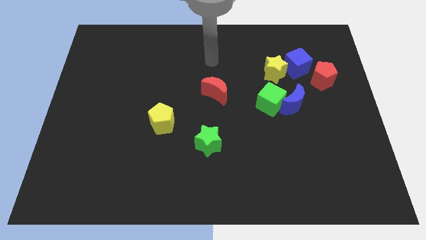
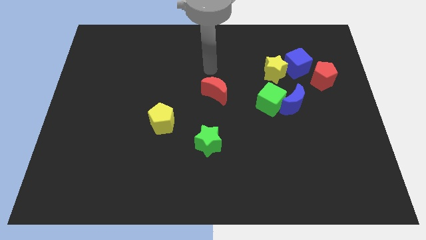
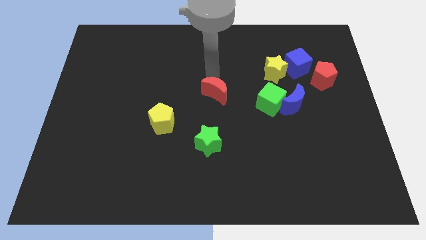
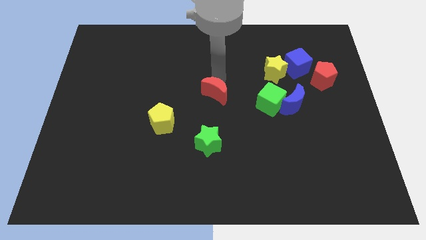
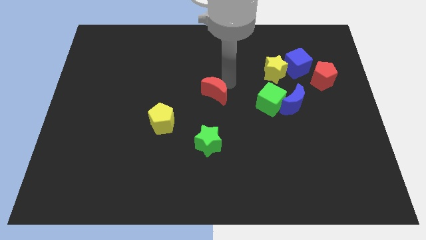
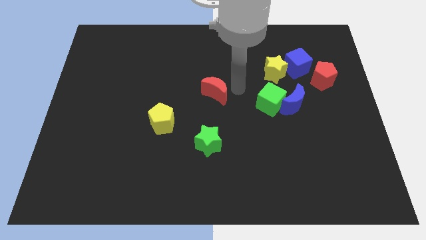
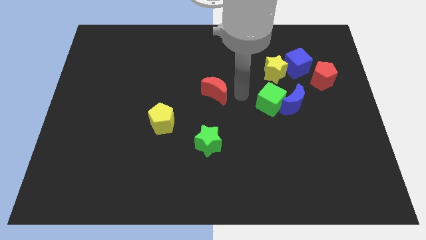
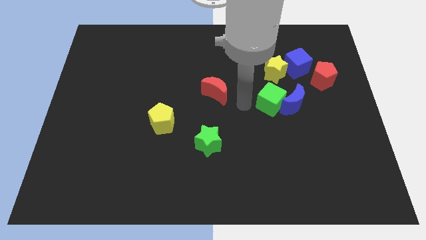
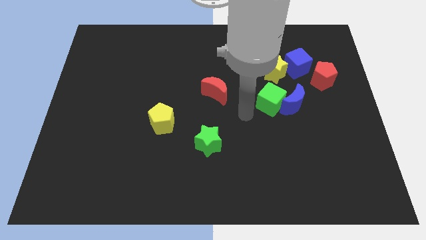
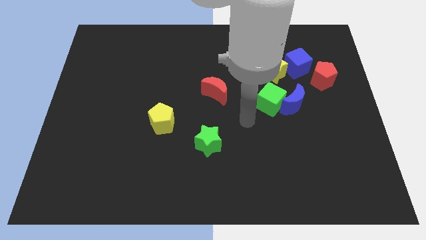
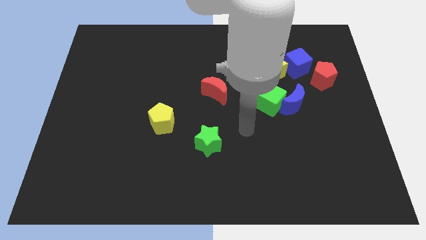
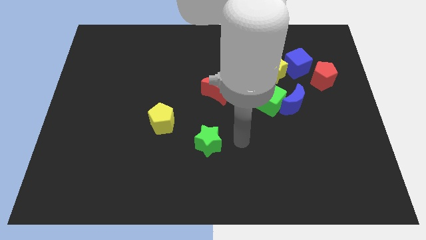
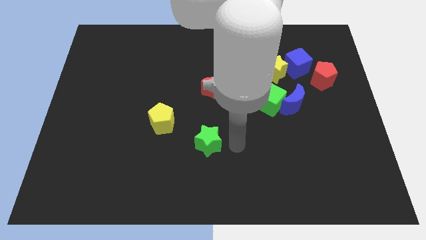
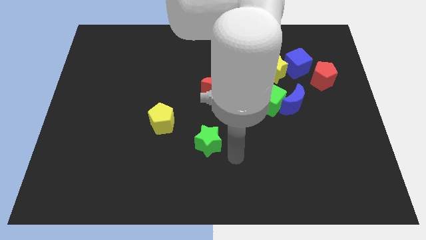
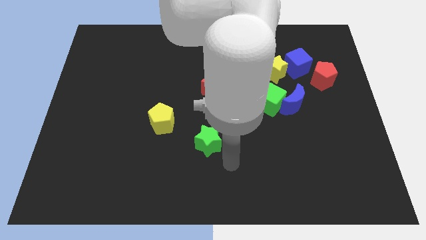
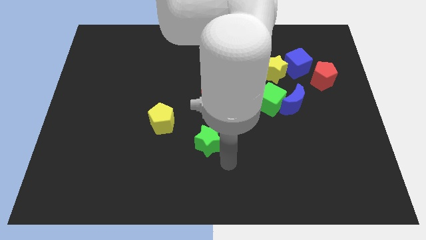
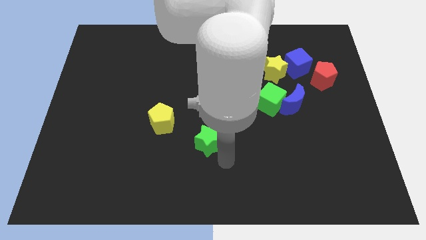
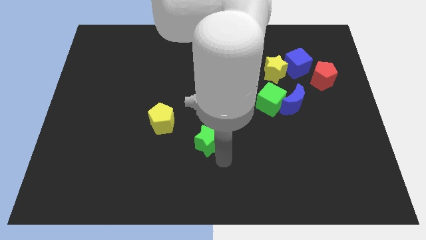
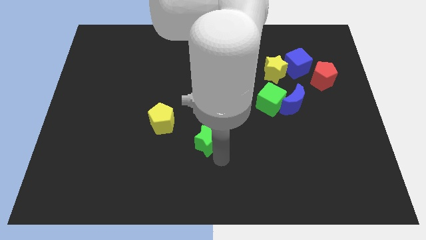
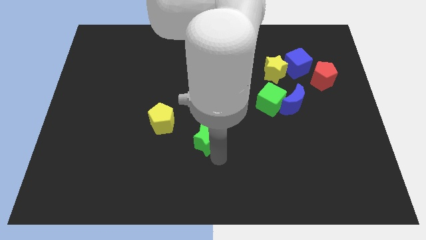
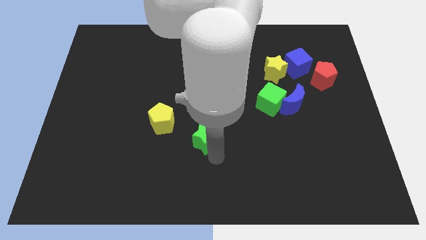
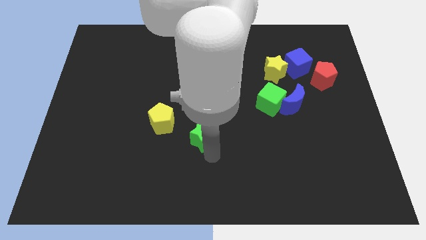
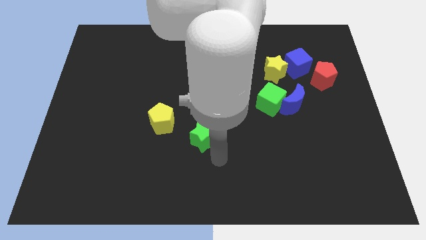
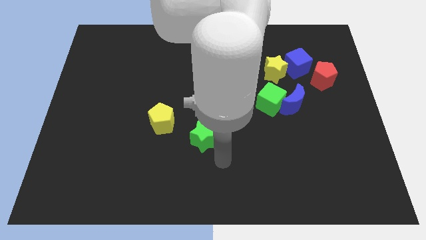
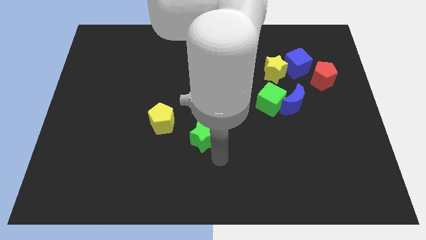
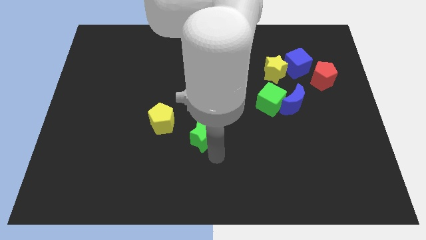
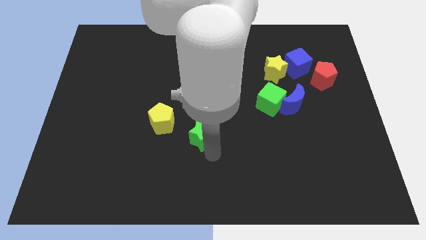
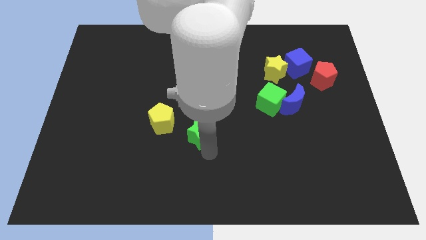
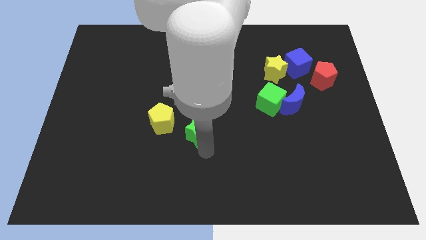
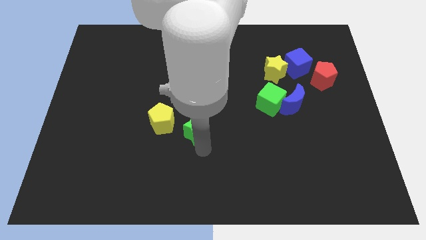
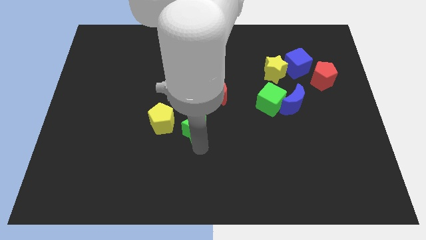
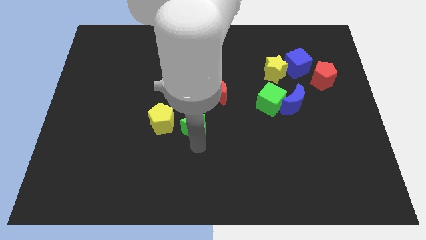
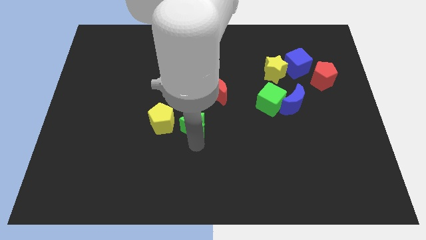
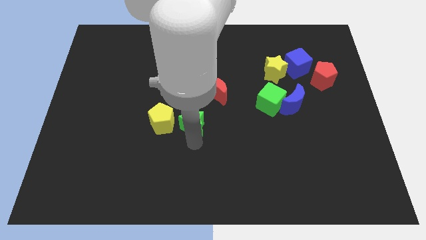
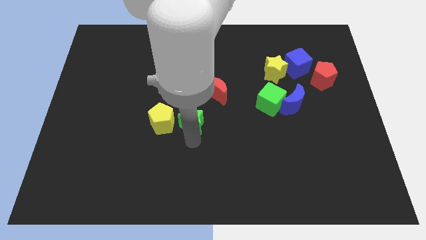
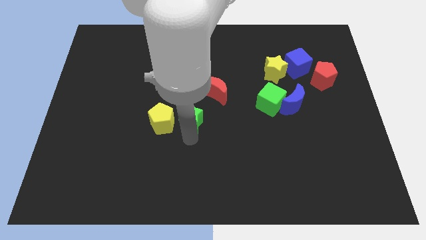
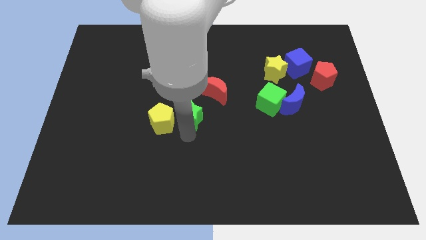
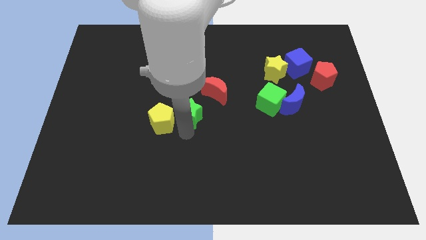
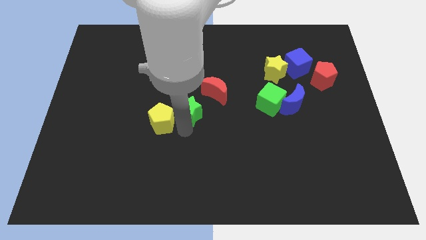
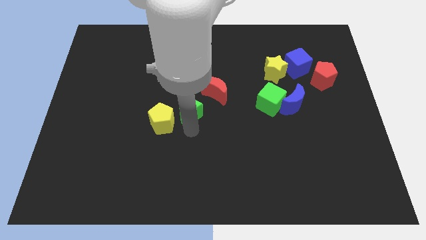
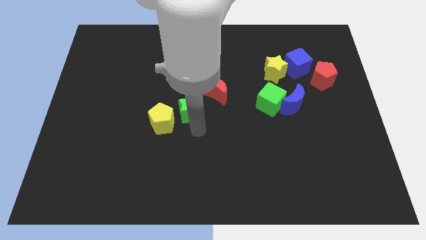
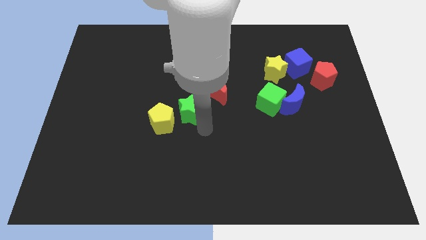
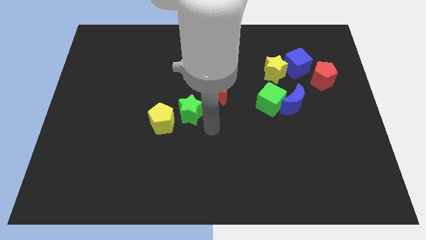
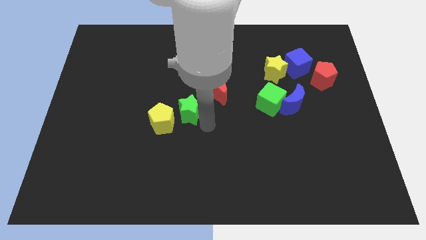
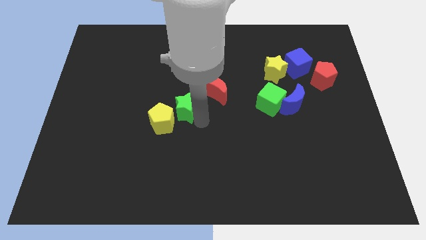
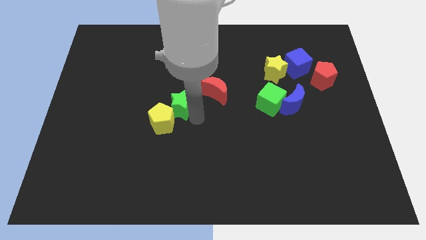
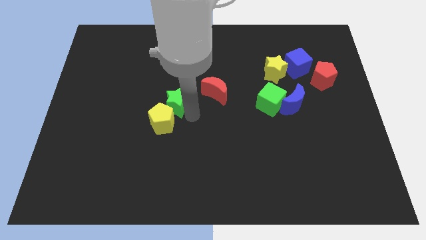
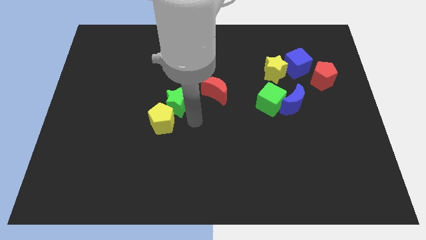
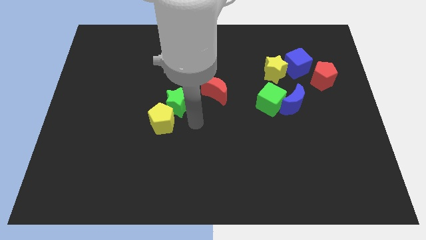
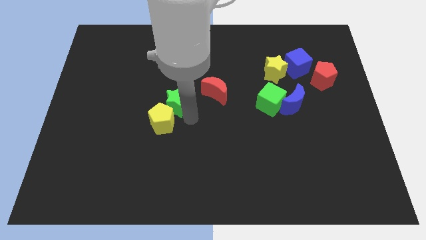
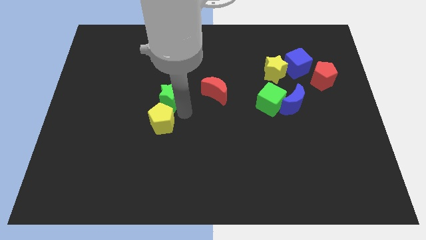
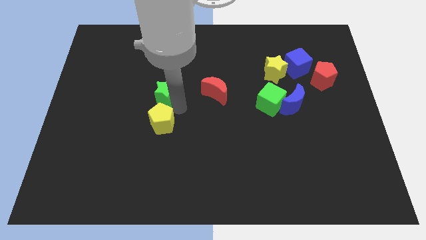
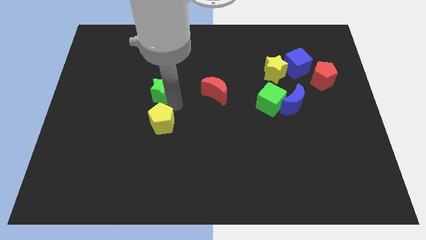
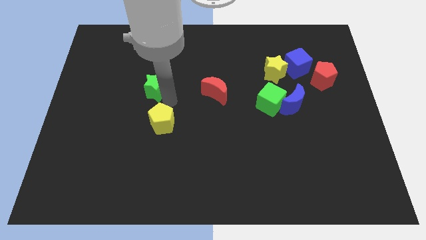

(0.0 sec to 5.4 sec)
slide the green star diagonally upwards and left

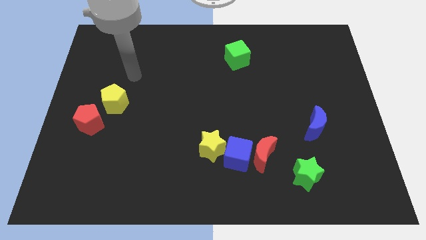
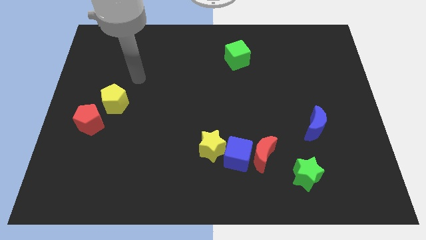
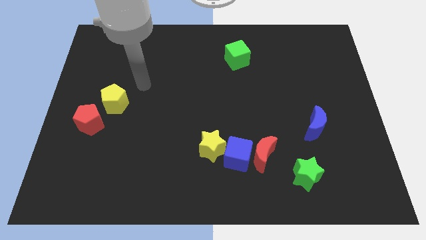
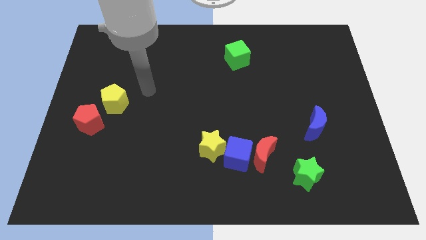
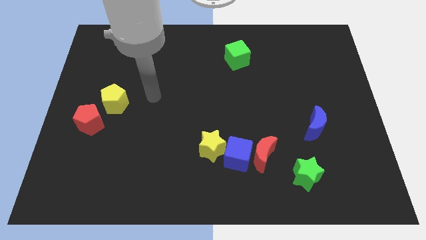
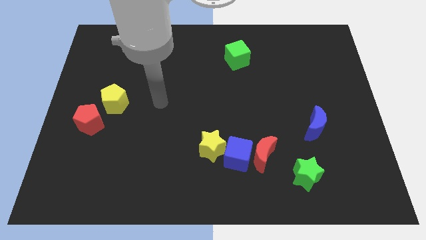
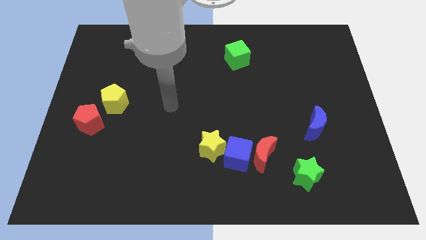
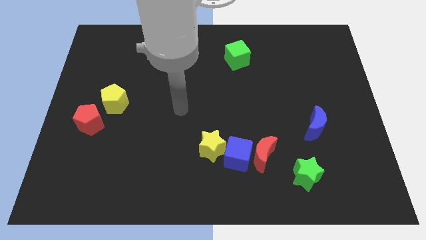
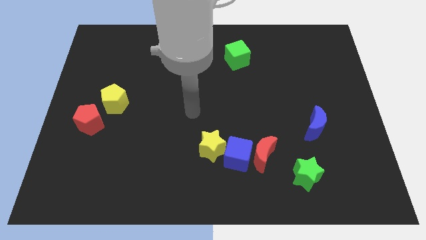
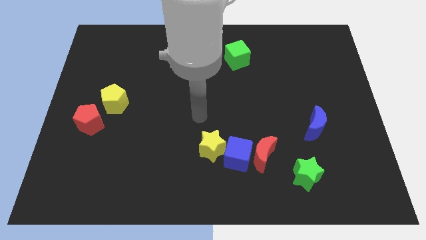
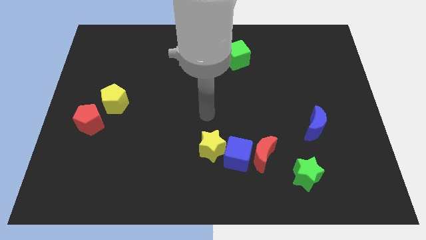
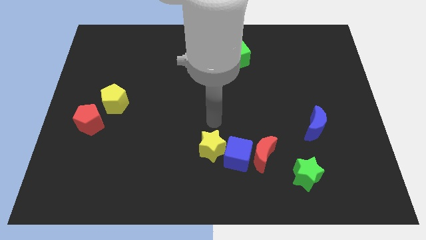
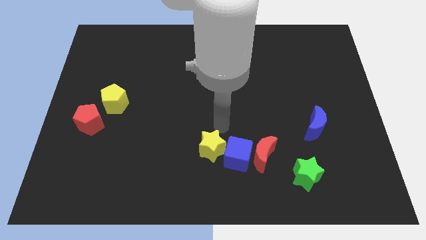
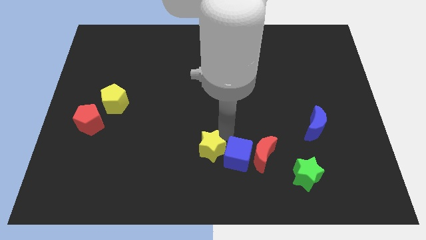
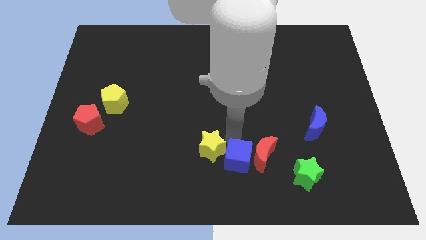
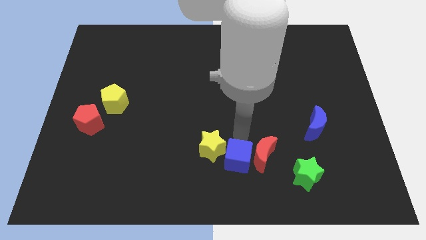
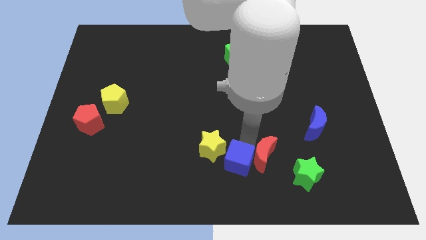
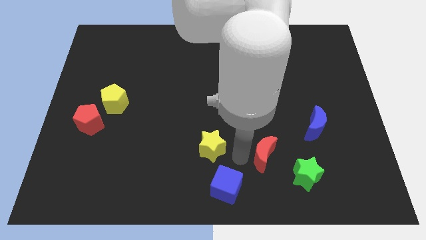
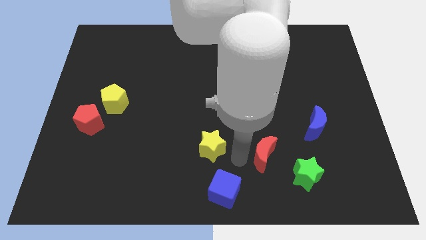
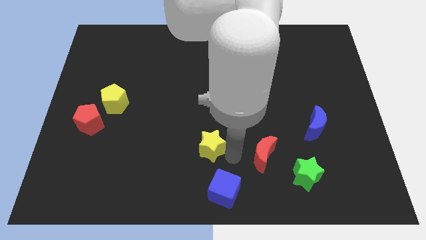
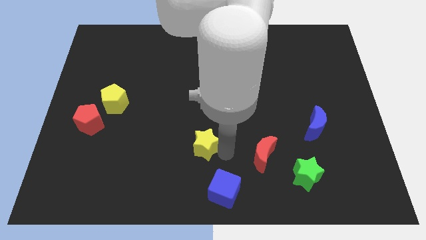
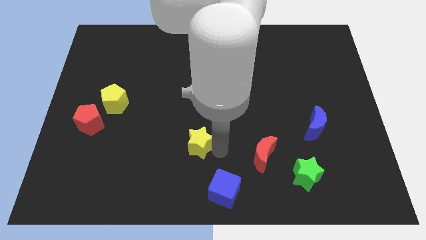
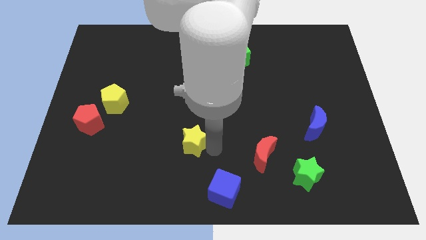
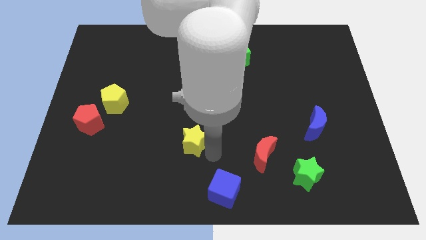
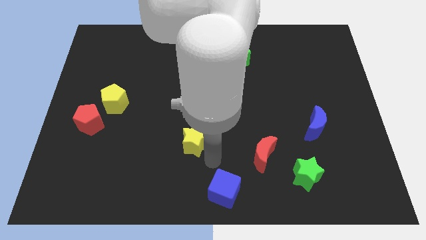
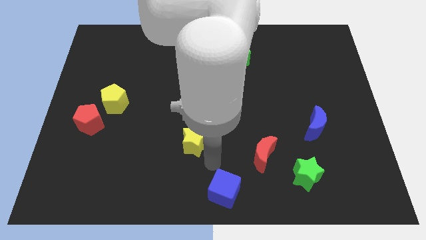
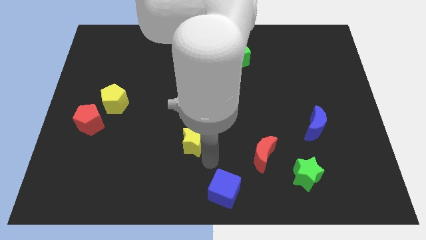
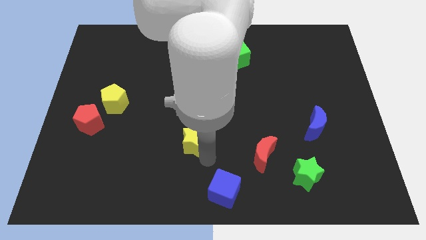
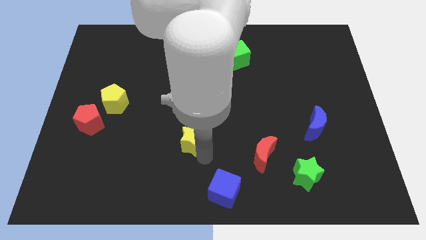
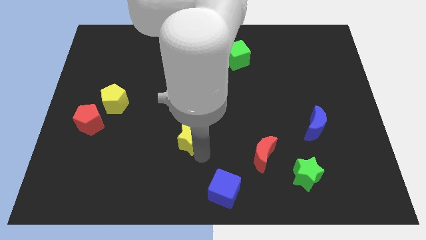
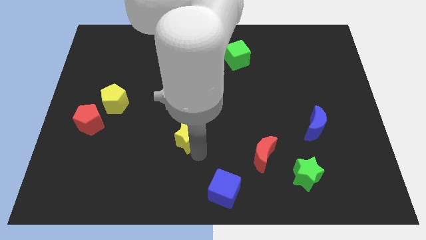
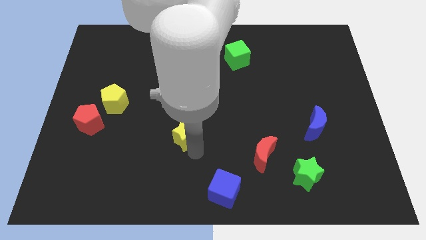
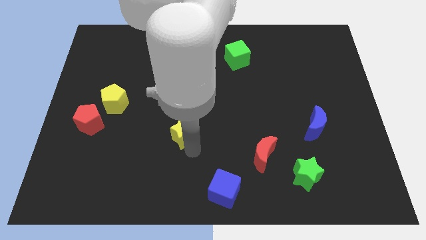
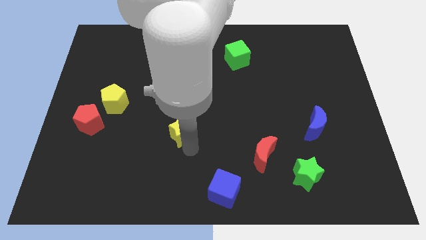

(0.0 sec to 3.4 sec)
push the yellow star a little up and to the left
